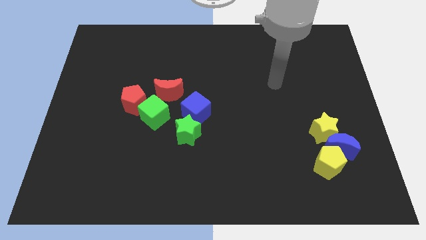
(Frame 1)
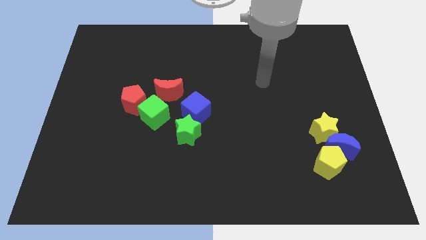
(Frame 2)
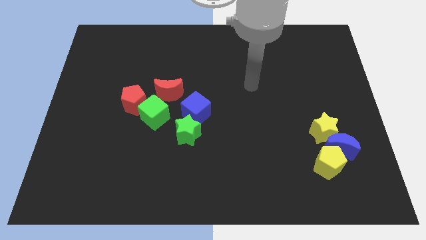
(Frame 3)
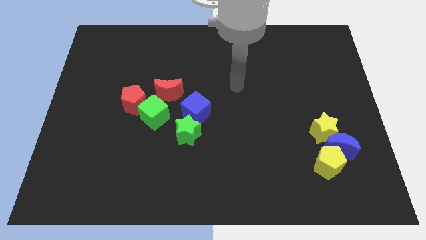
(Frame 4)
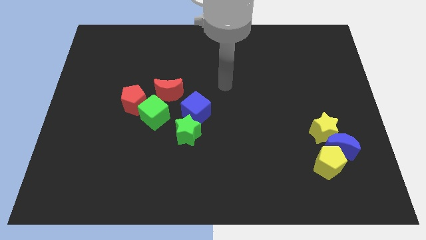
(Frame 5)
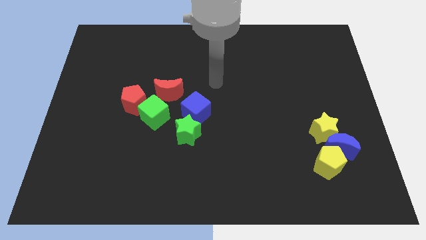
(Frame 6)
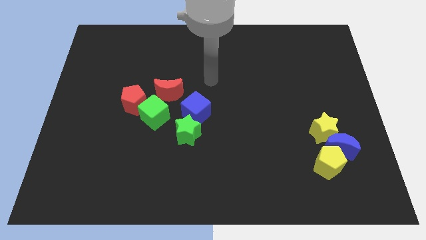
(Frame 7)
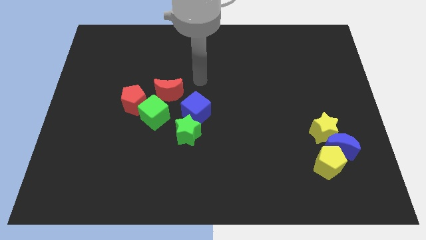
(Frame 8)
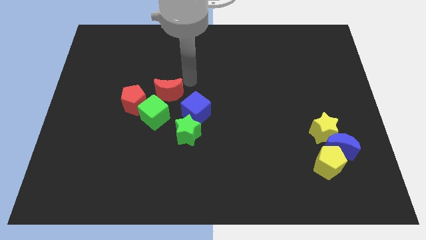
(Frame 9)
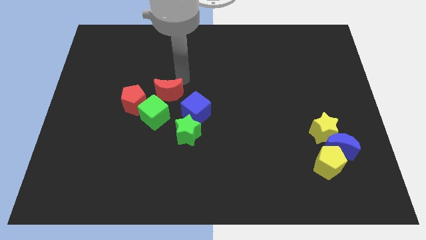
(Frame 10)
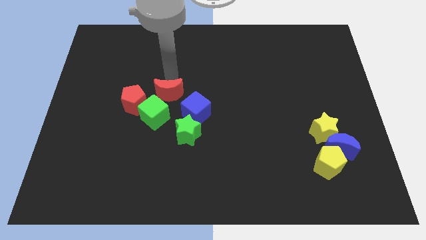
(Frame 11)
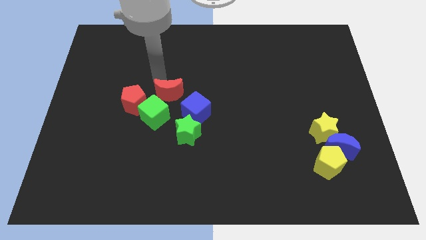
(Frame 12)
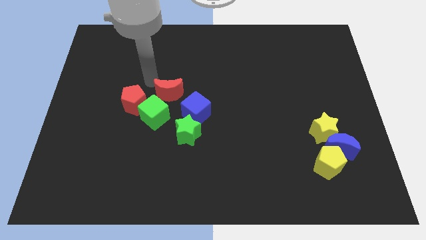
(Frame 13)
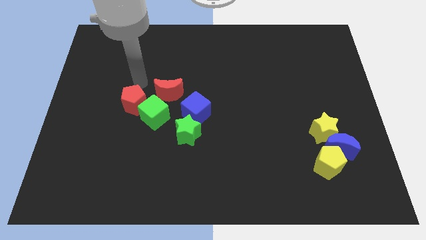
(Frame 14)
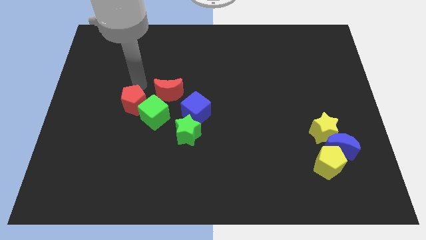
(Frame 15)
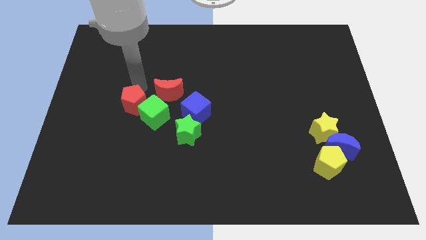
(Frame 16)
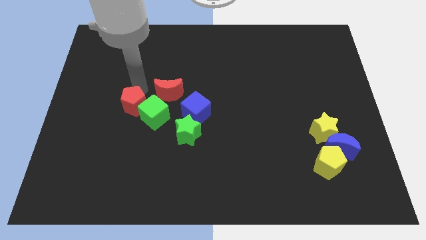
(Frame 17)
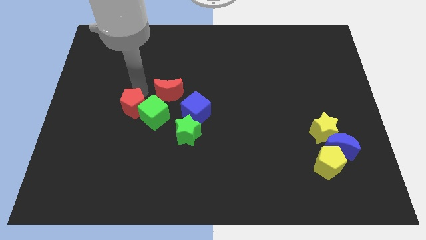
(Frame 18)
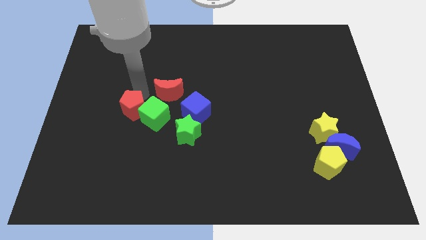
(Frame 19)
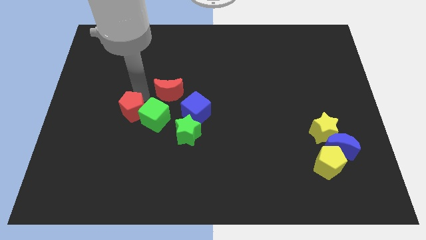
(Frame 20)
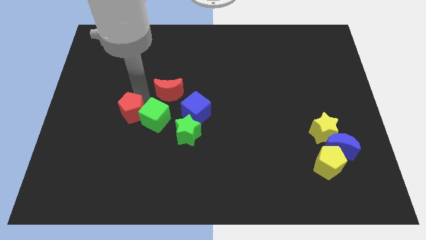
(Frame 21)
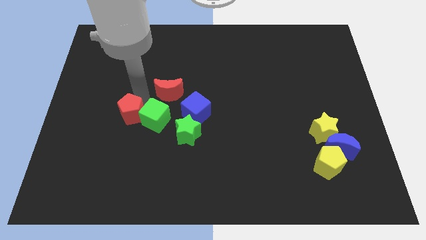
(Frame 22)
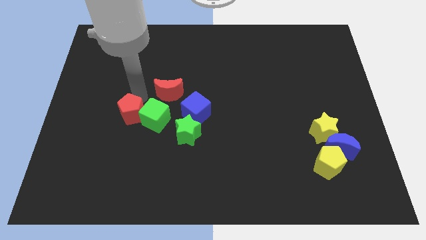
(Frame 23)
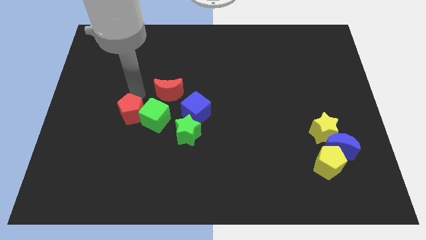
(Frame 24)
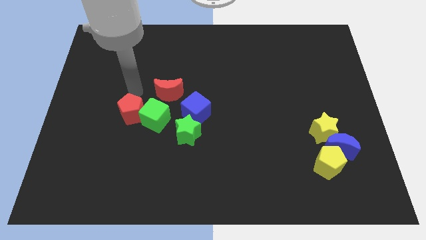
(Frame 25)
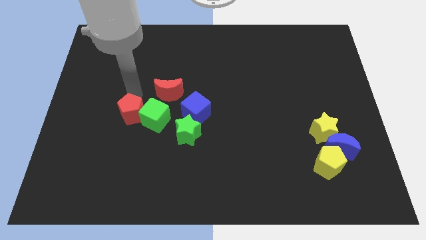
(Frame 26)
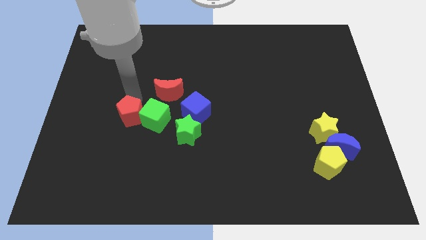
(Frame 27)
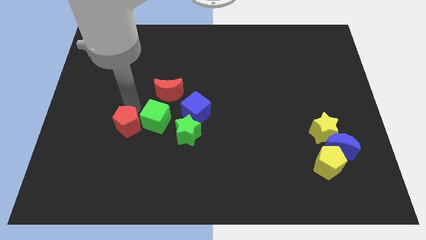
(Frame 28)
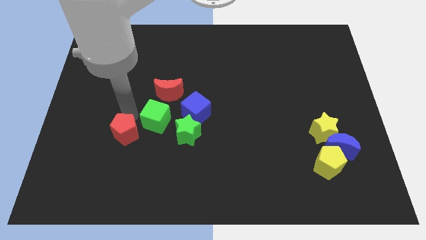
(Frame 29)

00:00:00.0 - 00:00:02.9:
slide the red pentagon down a bit

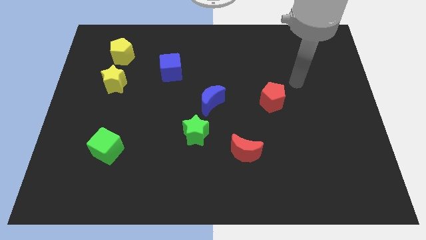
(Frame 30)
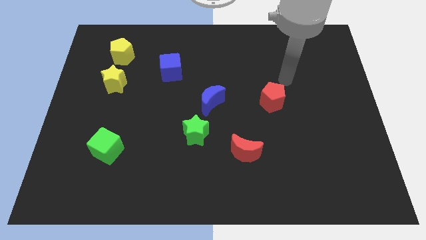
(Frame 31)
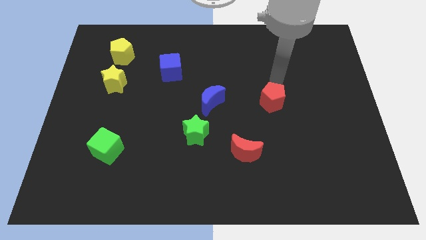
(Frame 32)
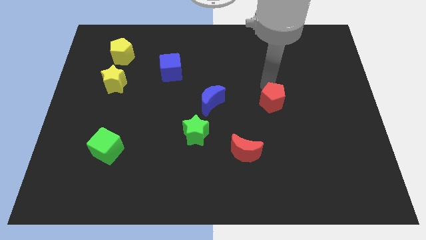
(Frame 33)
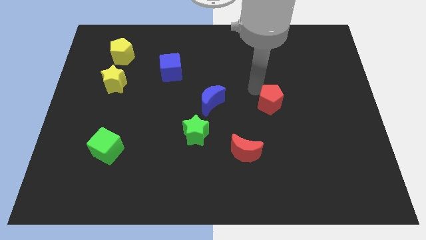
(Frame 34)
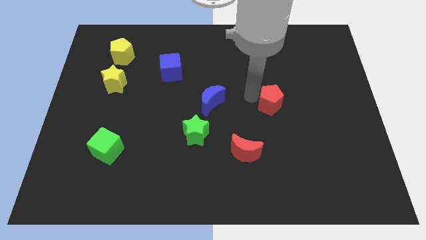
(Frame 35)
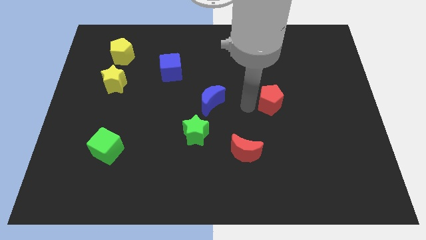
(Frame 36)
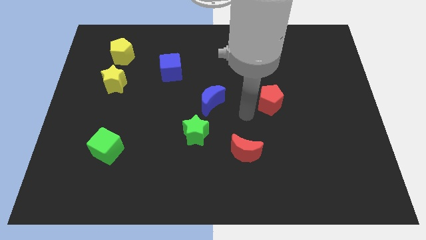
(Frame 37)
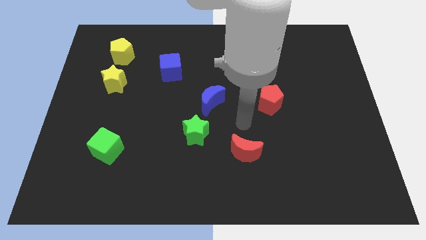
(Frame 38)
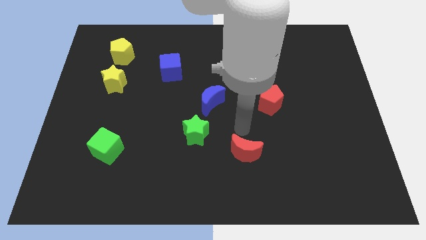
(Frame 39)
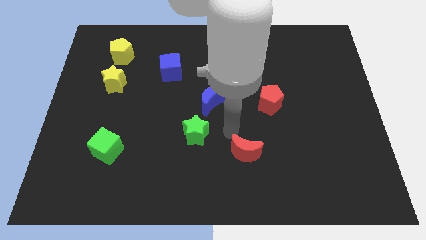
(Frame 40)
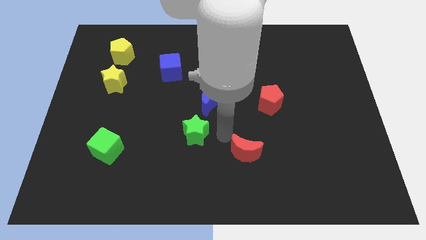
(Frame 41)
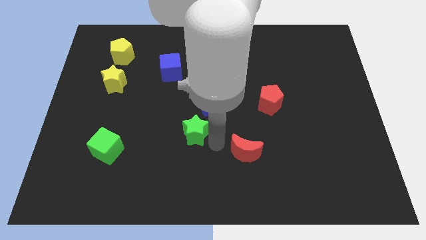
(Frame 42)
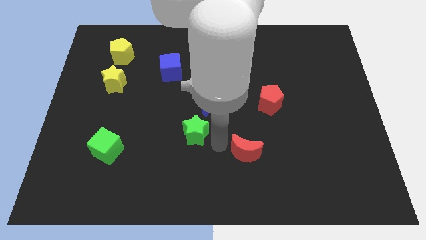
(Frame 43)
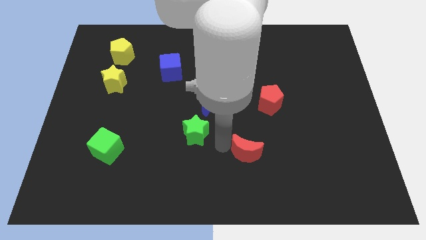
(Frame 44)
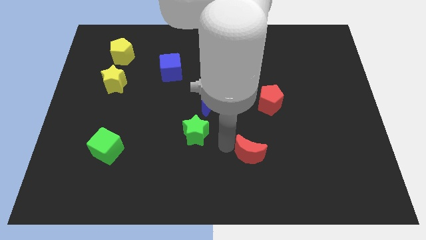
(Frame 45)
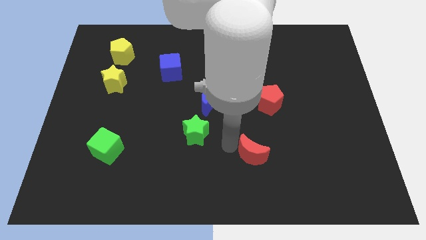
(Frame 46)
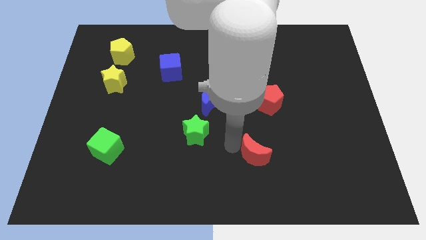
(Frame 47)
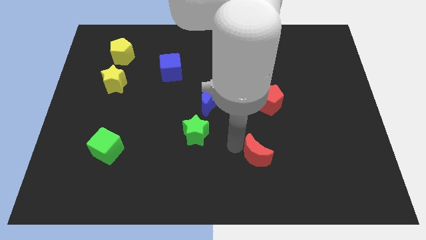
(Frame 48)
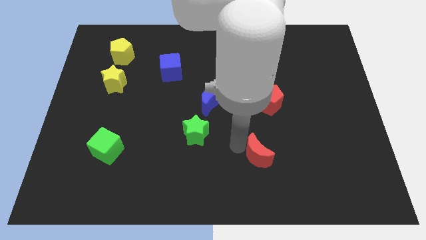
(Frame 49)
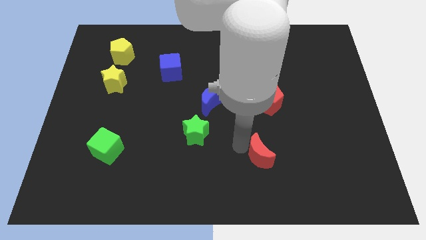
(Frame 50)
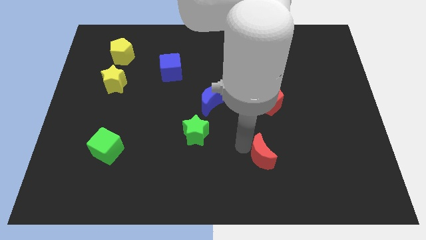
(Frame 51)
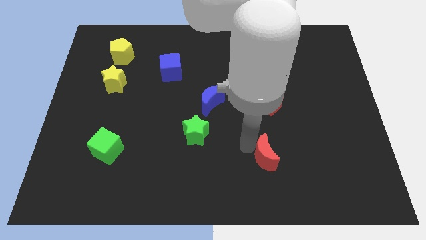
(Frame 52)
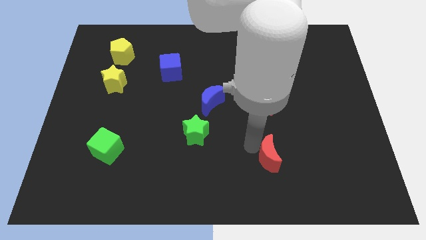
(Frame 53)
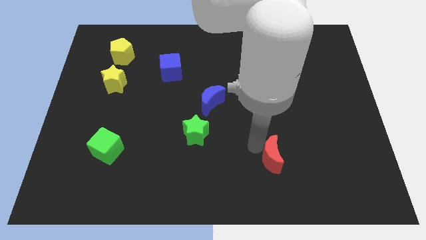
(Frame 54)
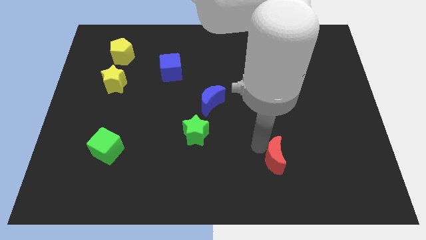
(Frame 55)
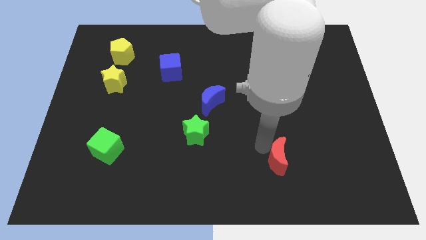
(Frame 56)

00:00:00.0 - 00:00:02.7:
push the red moon to the right a bit

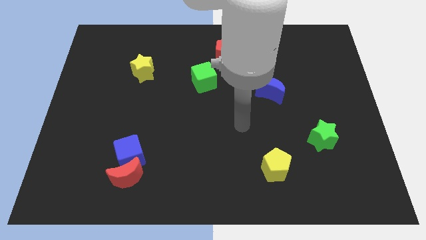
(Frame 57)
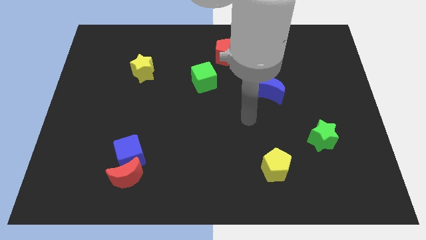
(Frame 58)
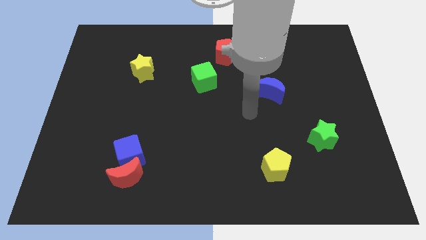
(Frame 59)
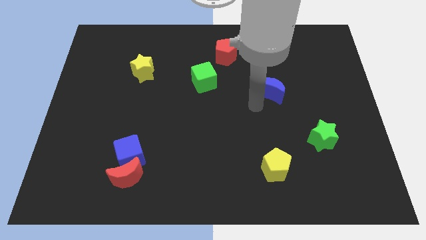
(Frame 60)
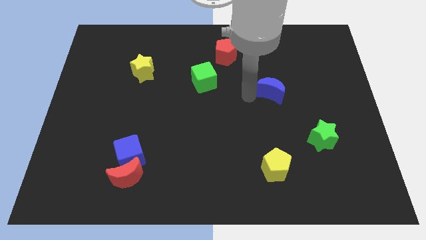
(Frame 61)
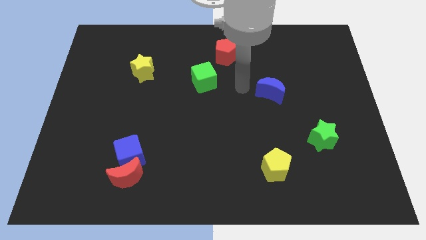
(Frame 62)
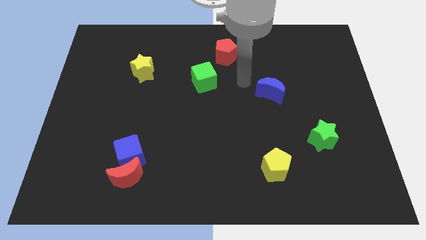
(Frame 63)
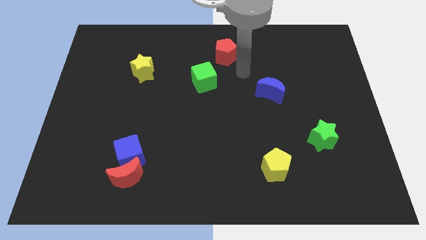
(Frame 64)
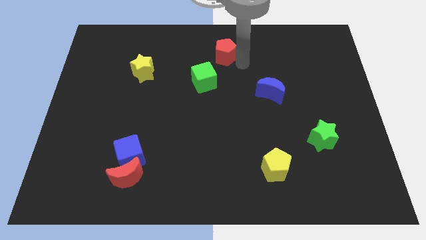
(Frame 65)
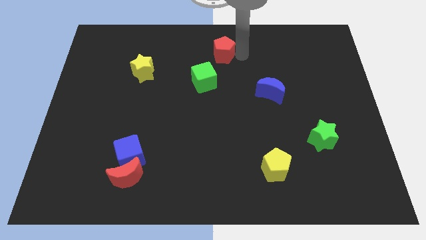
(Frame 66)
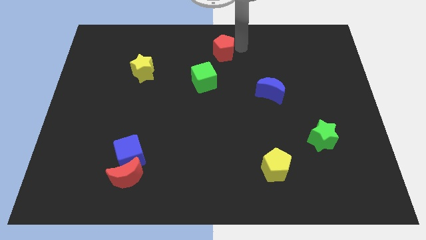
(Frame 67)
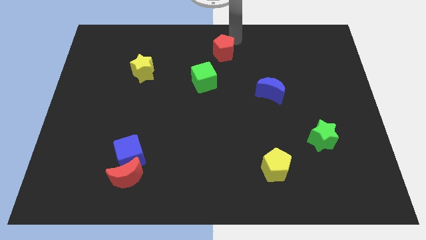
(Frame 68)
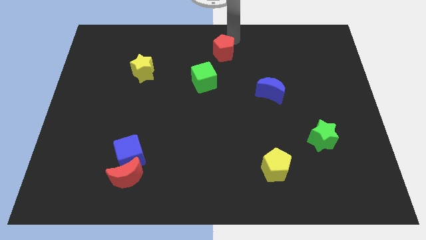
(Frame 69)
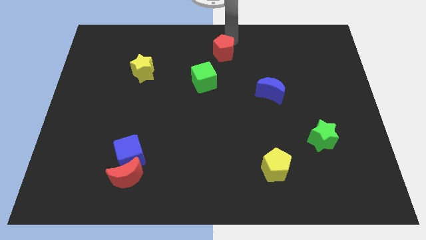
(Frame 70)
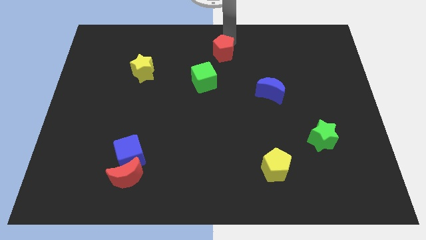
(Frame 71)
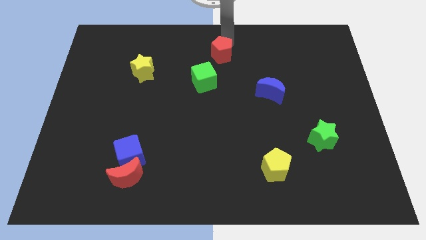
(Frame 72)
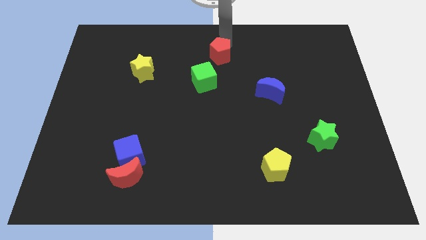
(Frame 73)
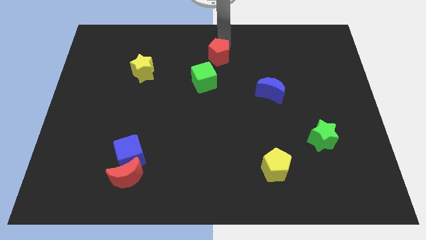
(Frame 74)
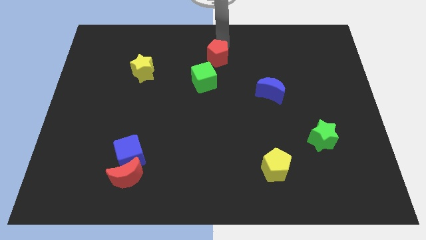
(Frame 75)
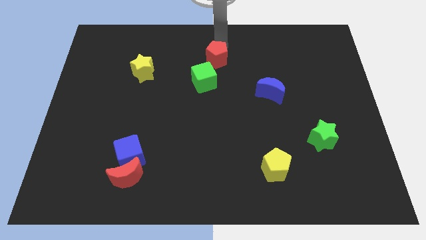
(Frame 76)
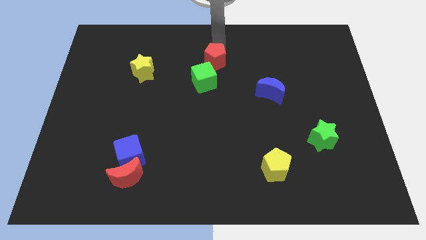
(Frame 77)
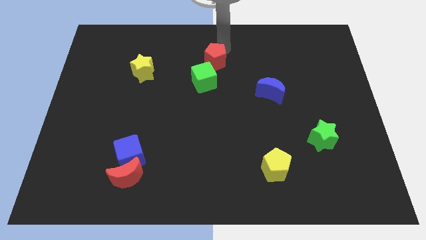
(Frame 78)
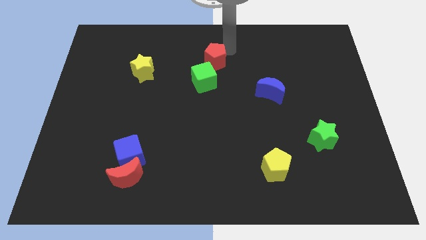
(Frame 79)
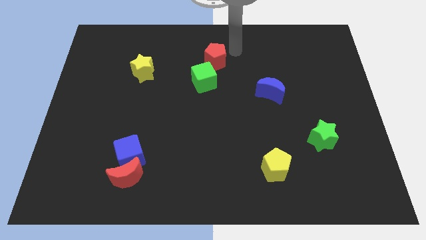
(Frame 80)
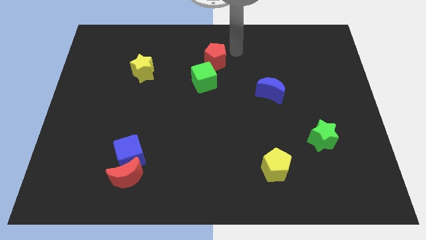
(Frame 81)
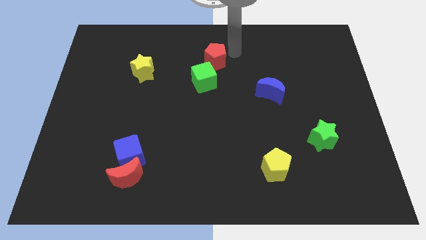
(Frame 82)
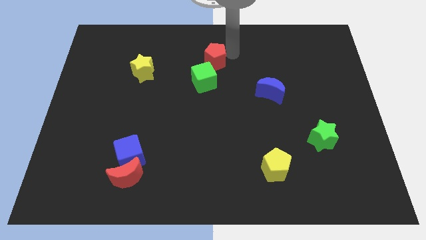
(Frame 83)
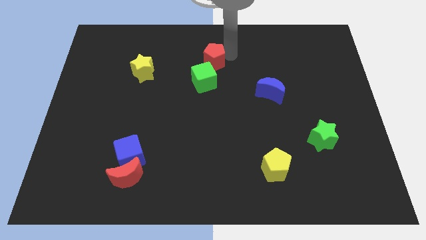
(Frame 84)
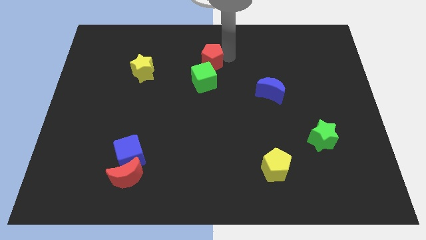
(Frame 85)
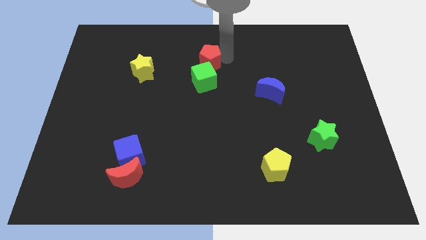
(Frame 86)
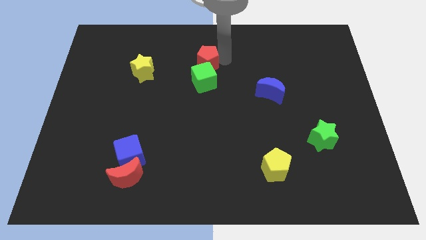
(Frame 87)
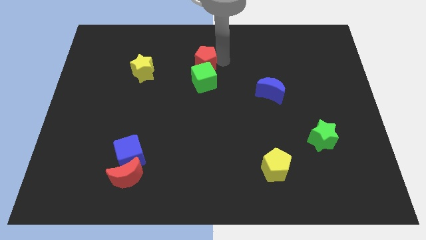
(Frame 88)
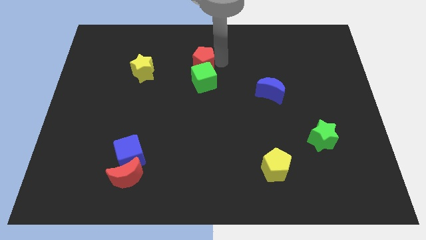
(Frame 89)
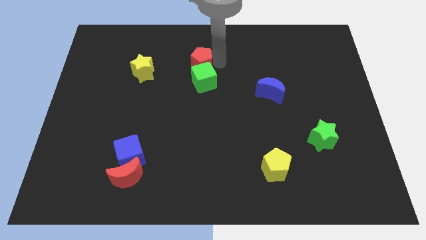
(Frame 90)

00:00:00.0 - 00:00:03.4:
slightly move the red pentagon down and then to the left
